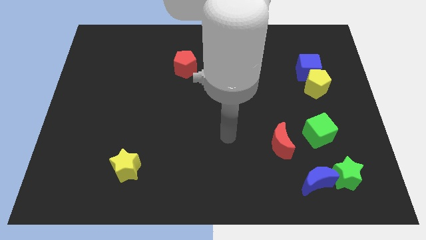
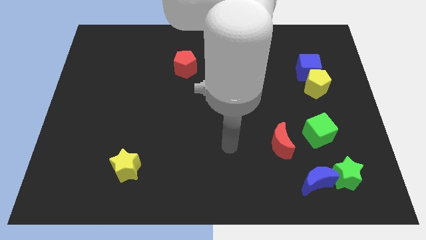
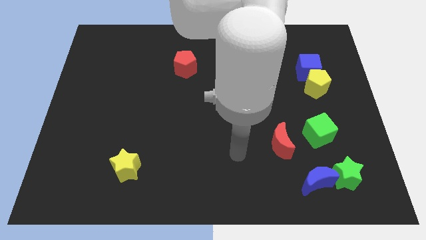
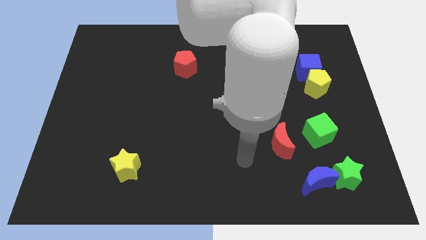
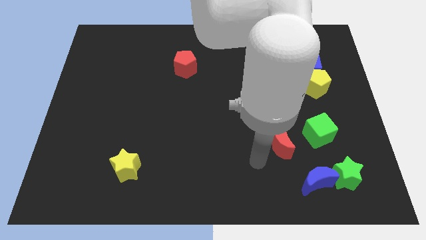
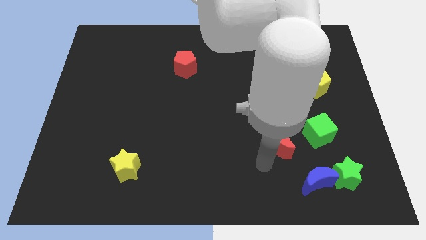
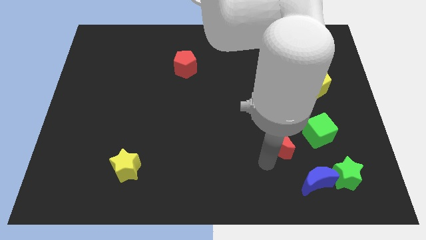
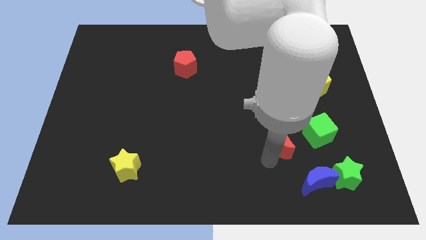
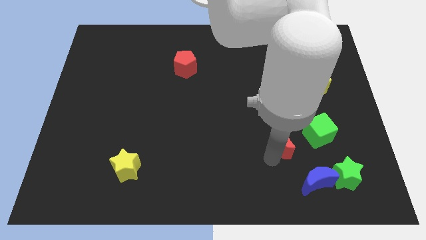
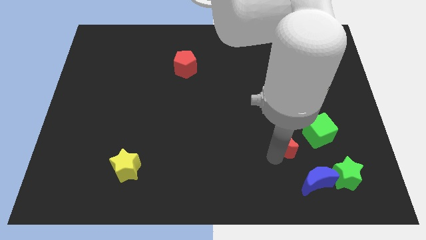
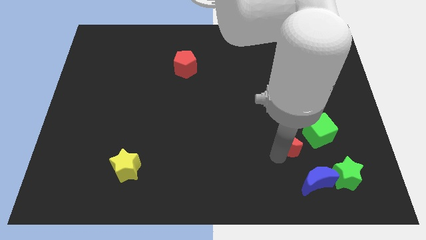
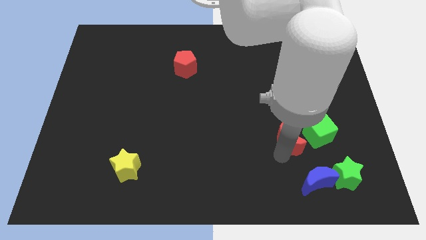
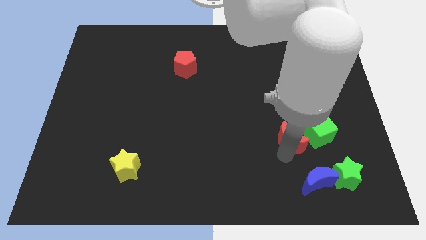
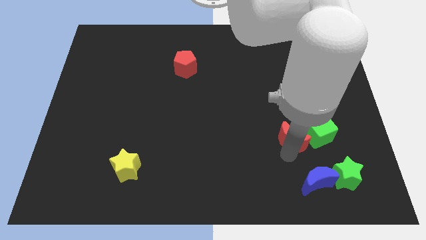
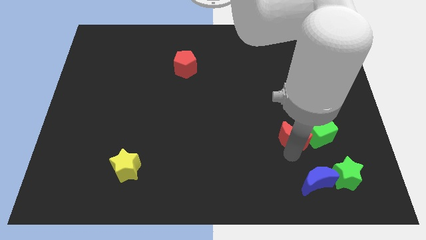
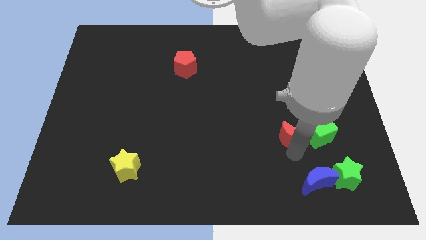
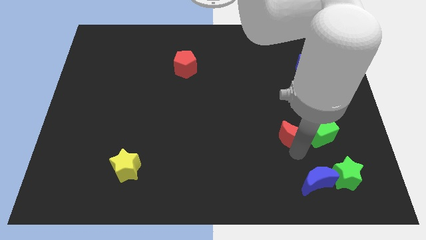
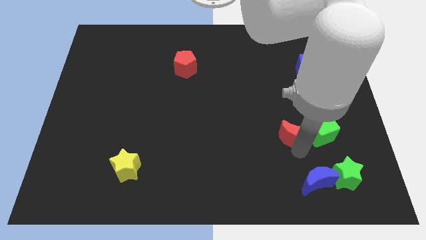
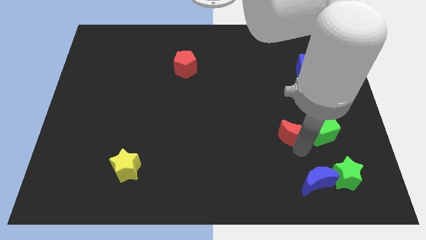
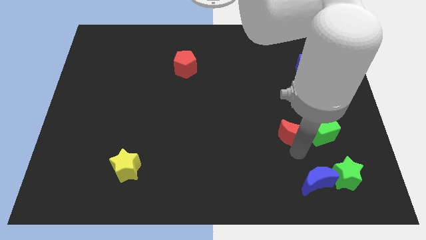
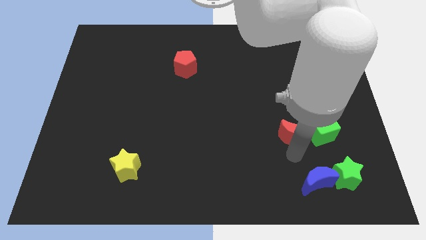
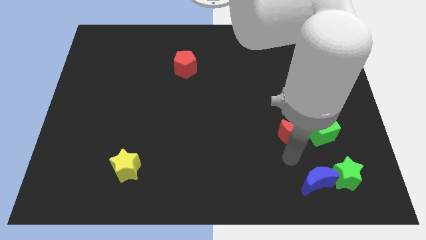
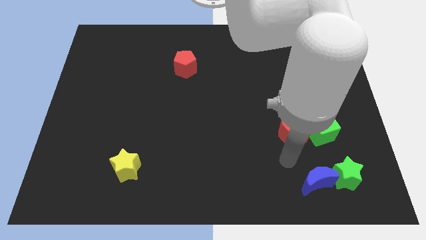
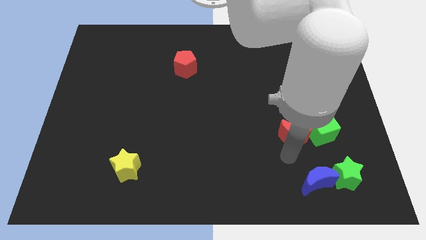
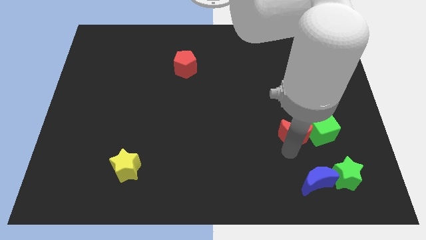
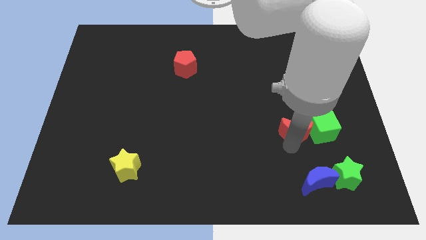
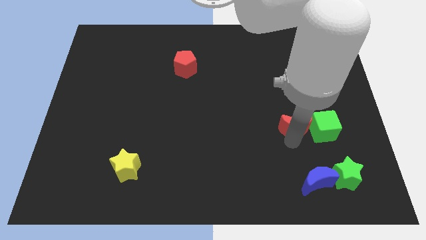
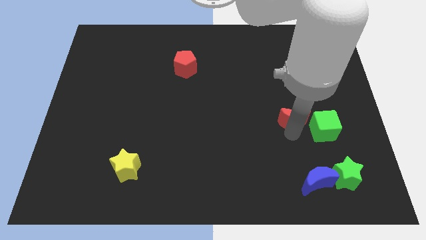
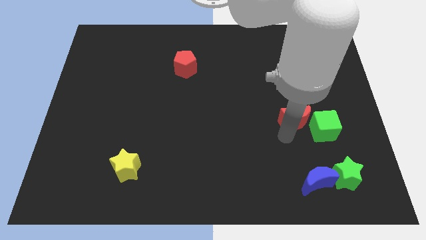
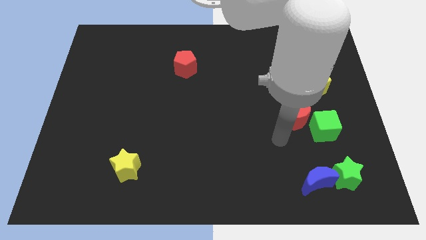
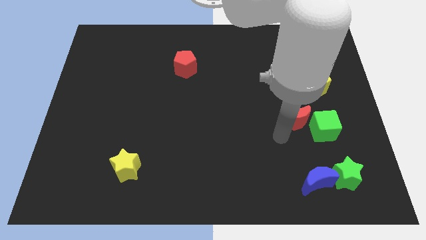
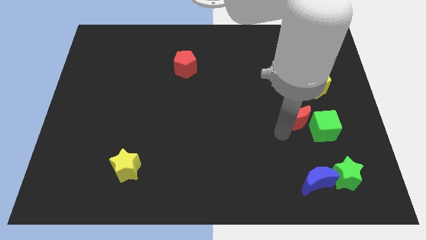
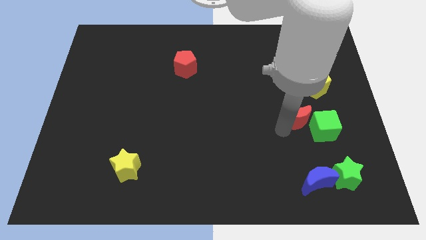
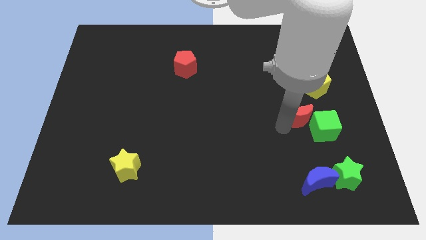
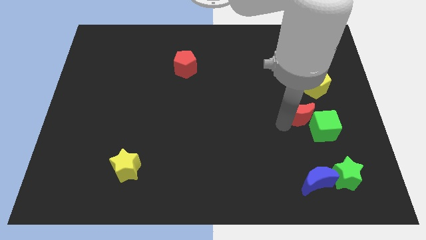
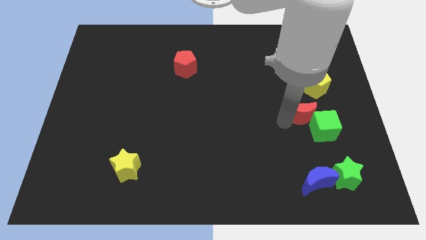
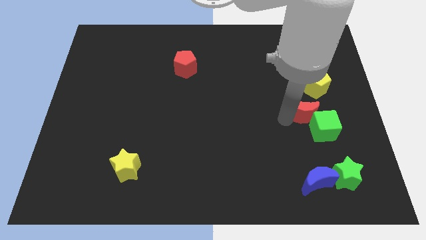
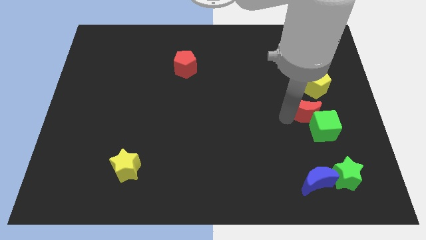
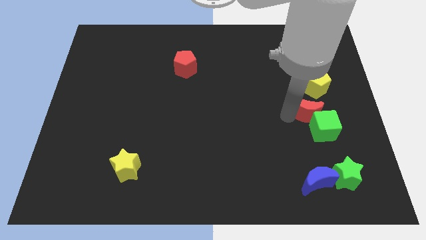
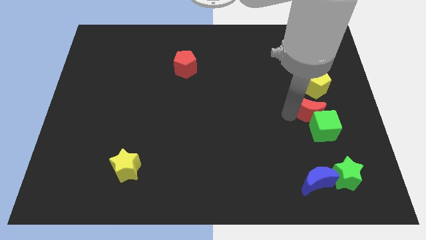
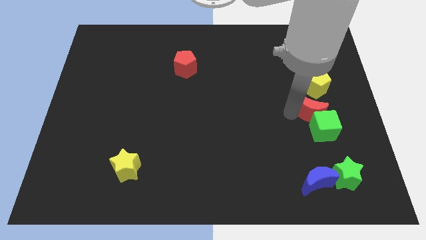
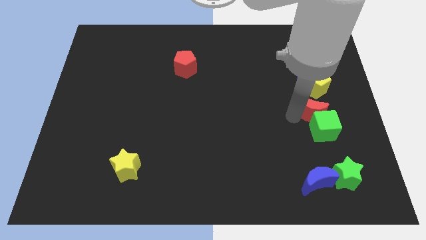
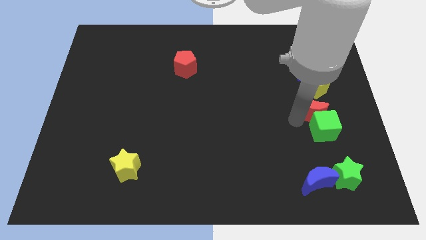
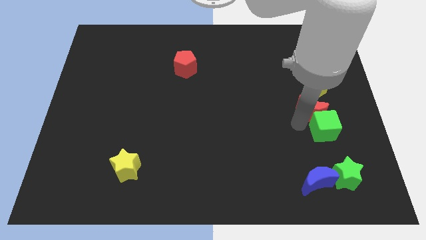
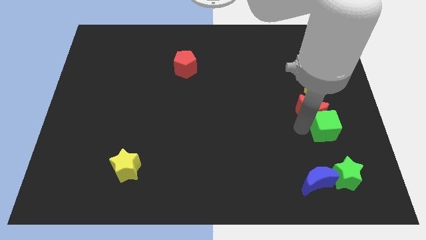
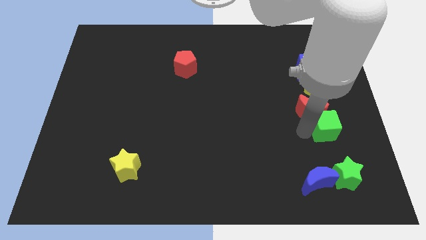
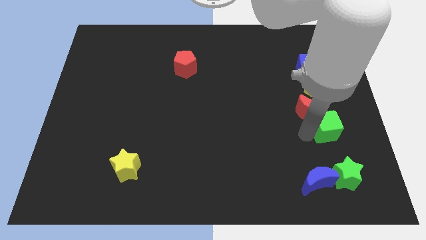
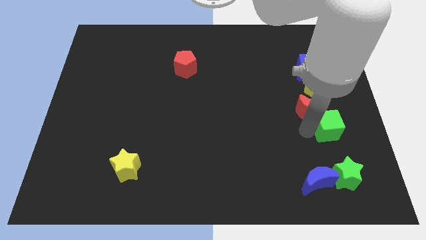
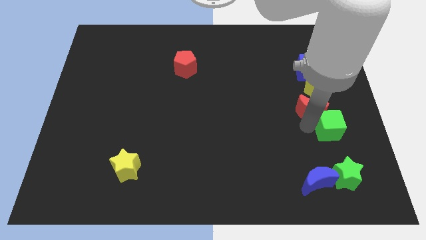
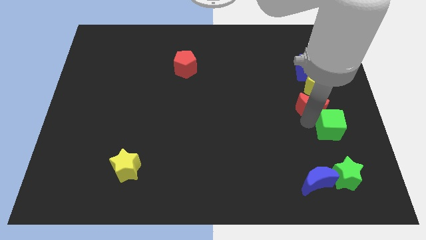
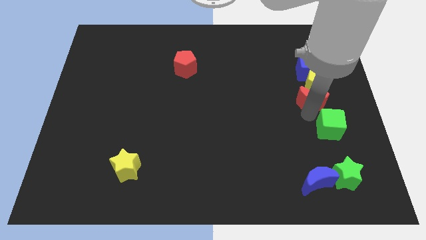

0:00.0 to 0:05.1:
push the red moon to the yellow pentagon

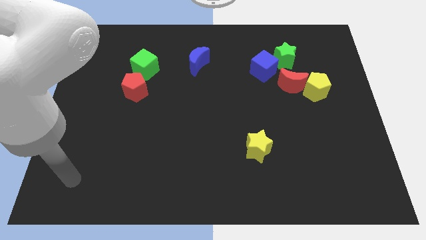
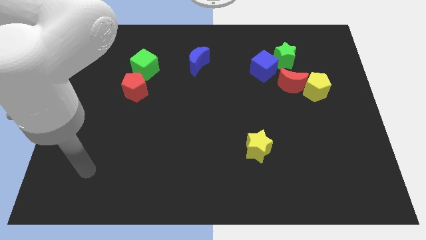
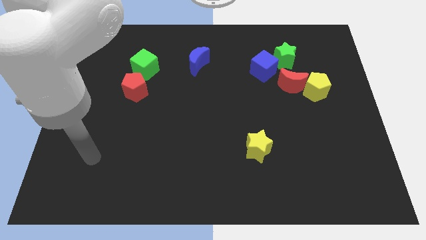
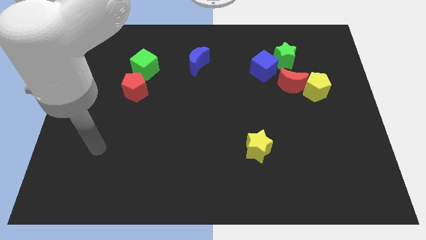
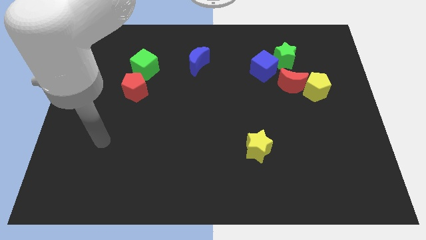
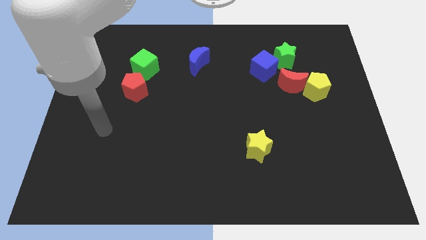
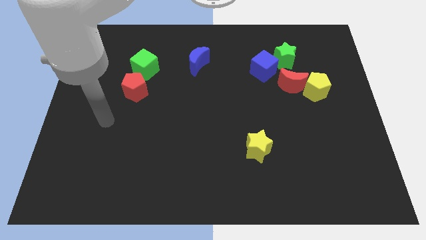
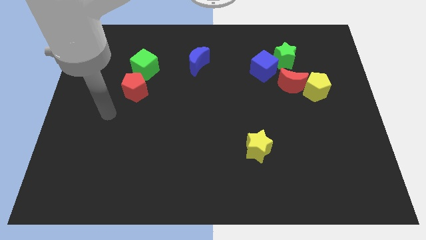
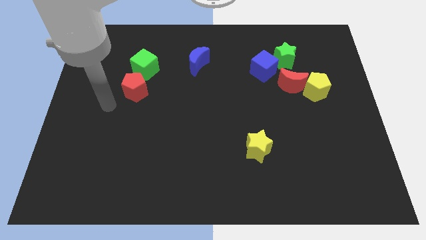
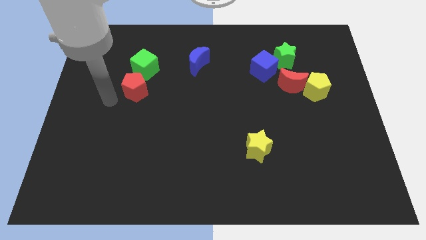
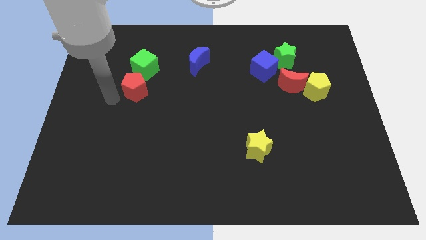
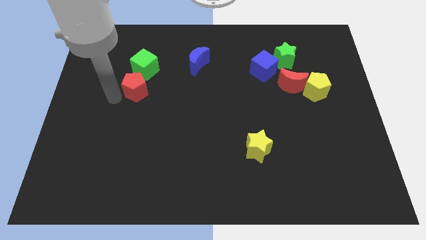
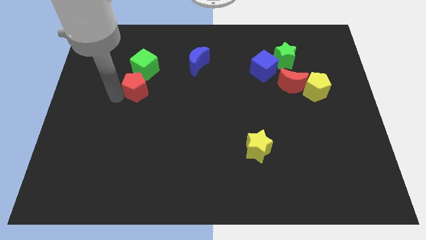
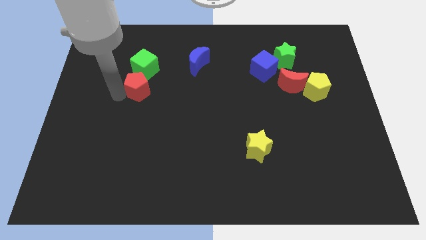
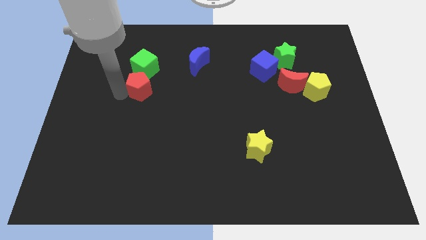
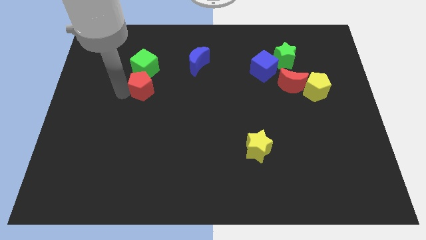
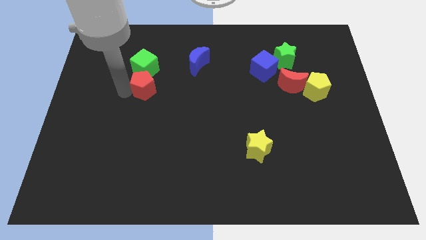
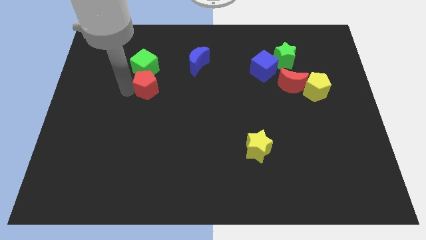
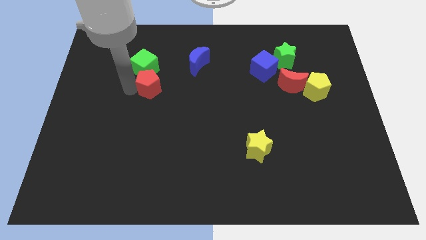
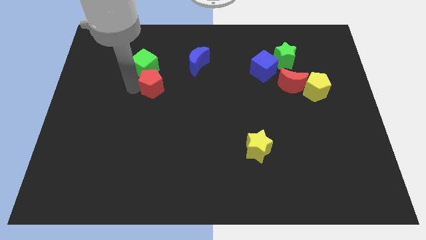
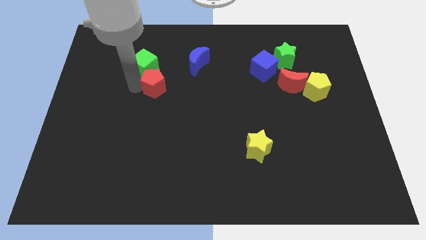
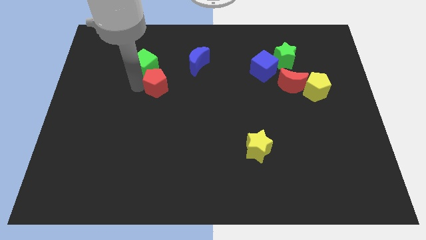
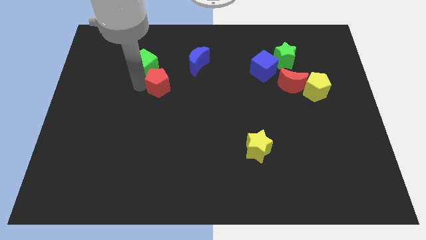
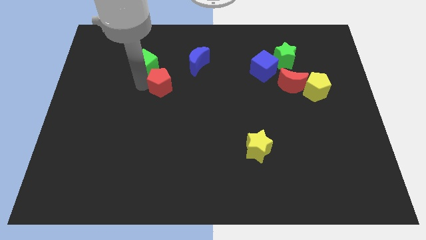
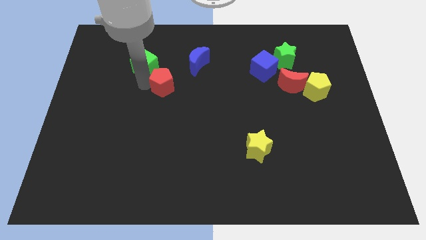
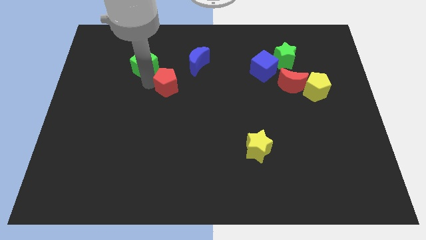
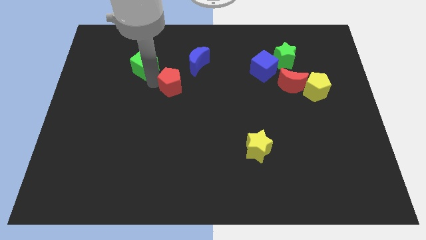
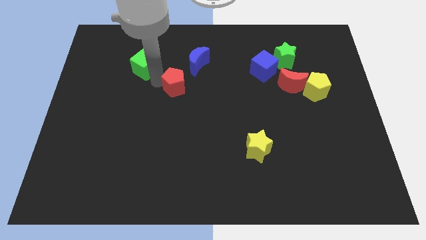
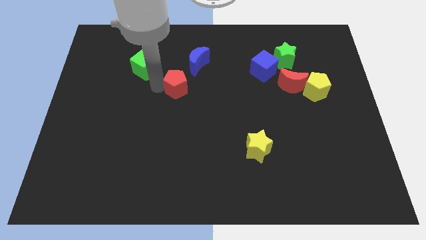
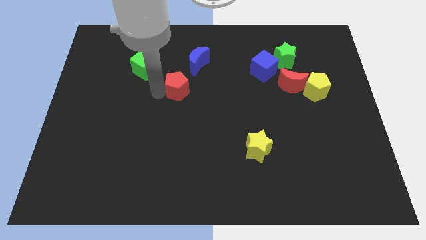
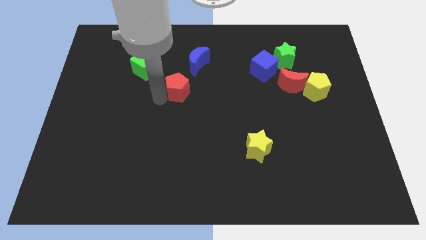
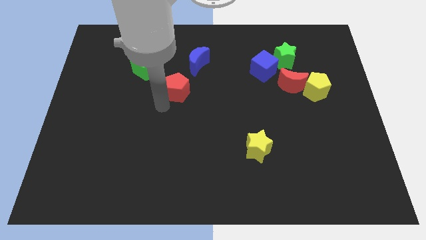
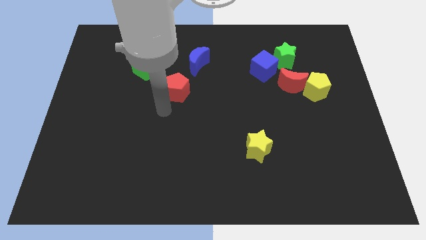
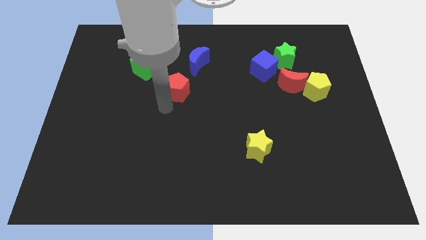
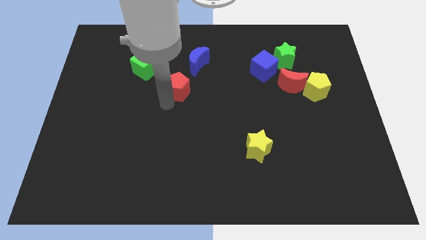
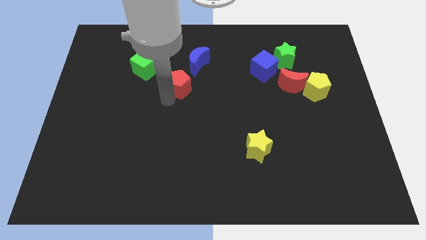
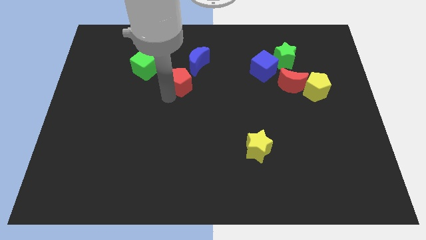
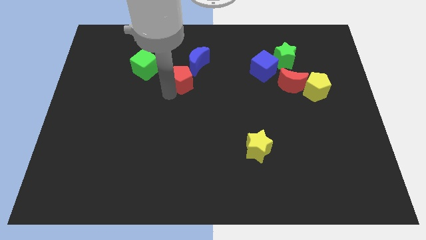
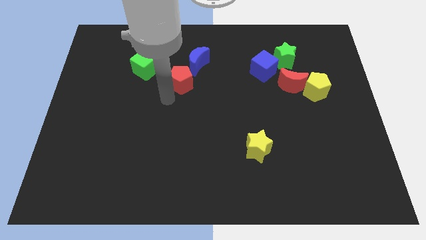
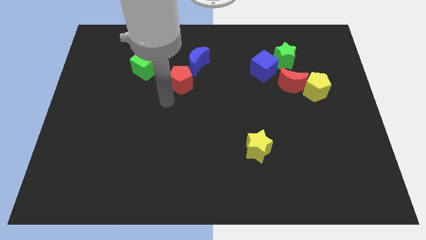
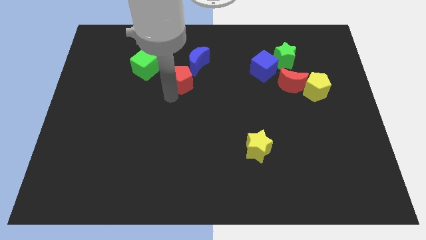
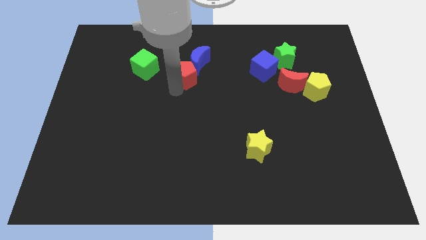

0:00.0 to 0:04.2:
put the red pentagon next to the blue moon
